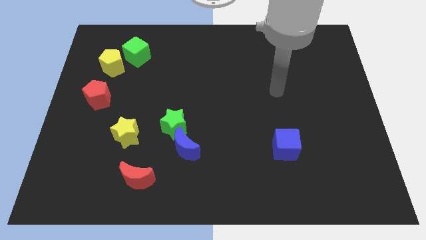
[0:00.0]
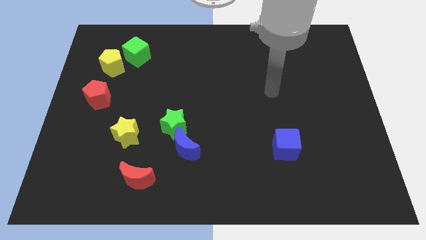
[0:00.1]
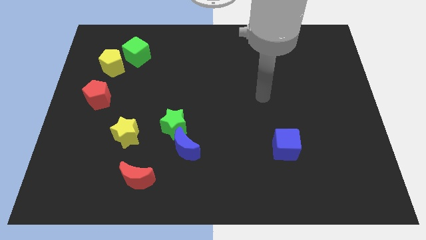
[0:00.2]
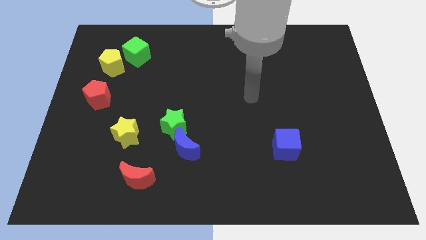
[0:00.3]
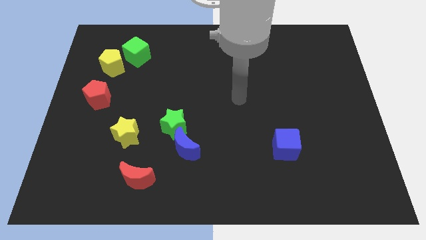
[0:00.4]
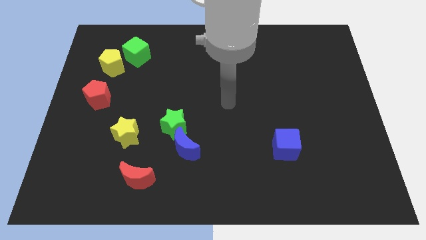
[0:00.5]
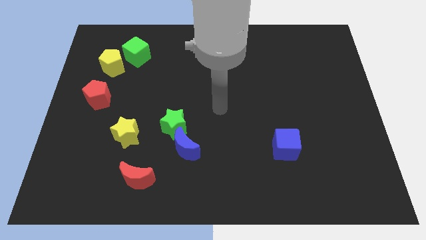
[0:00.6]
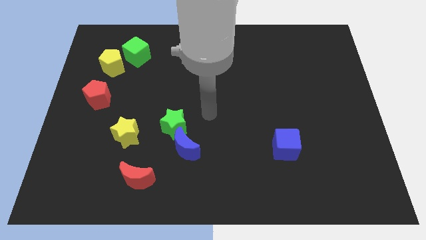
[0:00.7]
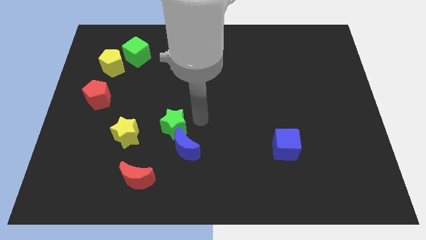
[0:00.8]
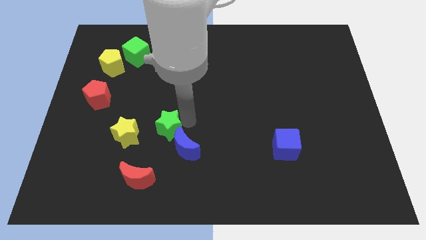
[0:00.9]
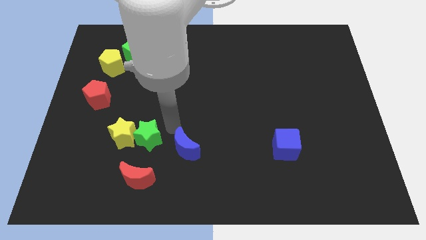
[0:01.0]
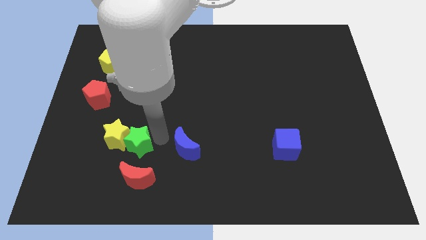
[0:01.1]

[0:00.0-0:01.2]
move the blue moon away from the green star

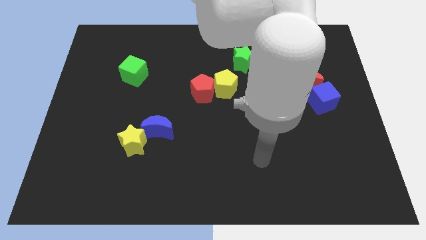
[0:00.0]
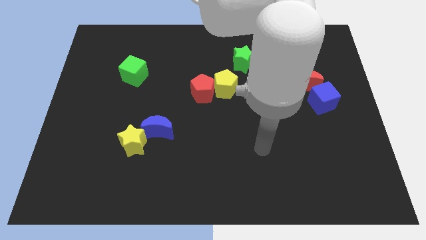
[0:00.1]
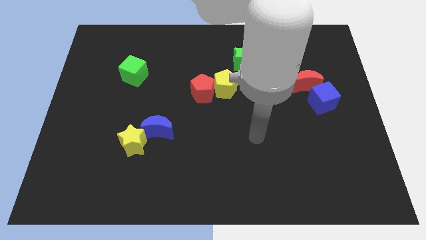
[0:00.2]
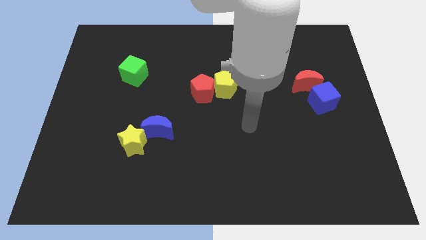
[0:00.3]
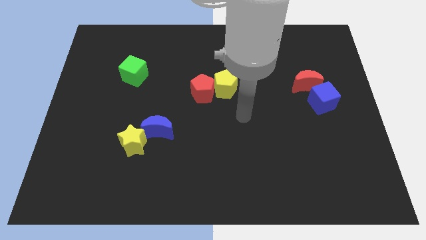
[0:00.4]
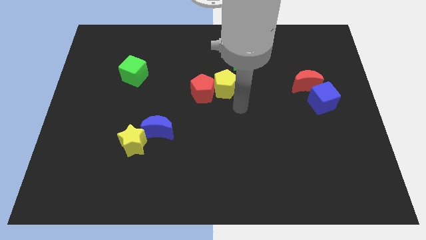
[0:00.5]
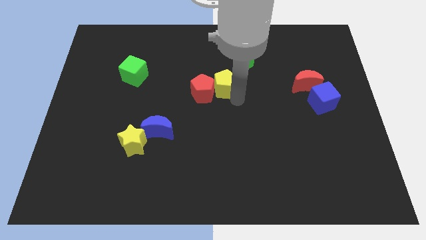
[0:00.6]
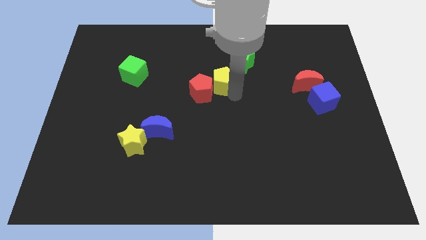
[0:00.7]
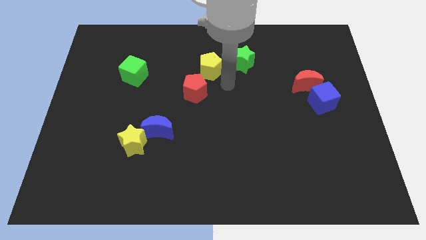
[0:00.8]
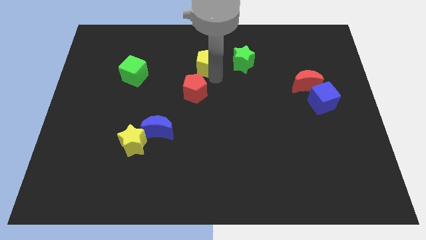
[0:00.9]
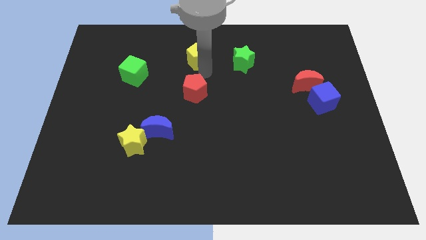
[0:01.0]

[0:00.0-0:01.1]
separate the red pentagon from the yellow pentagon

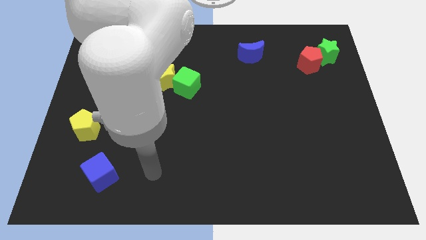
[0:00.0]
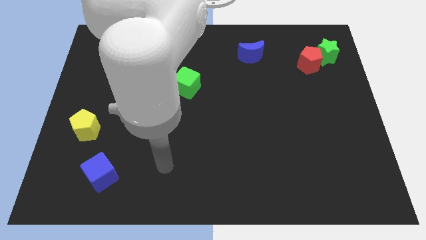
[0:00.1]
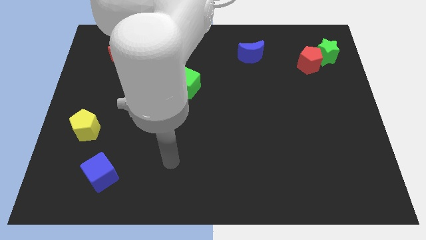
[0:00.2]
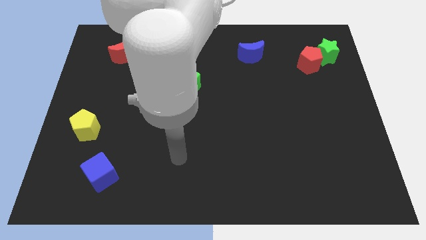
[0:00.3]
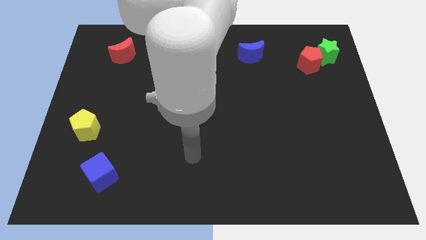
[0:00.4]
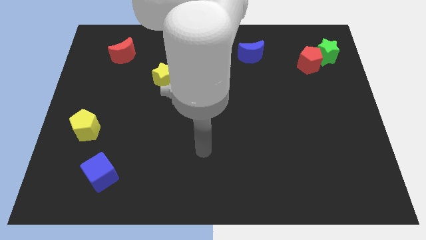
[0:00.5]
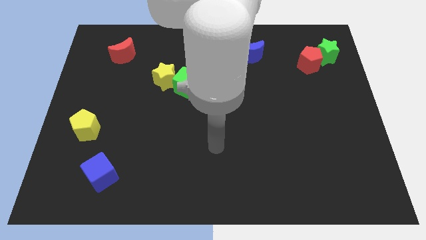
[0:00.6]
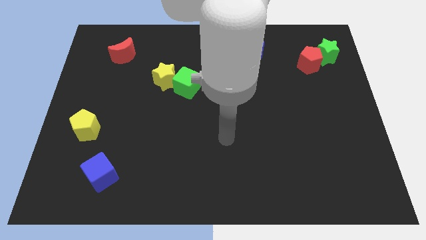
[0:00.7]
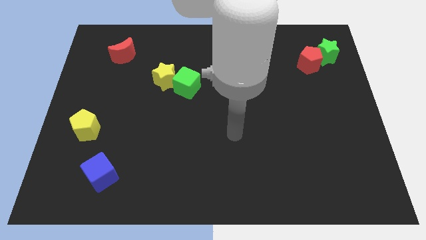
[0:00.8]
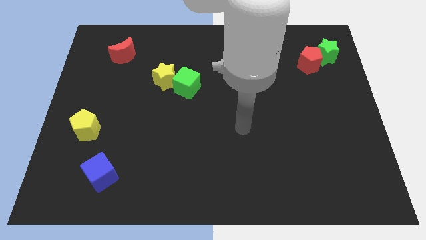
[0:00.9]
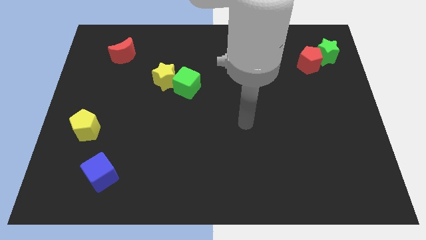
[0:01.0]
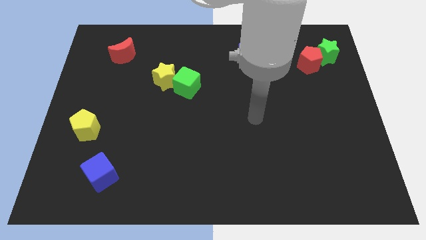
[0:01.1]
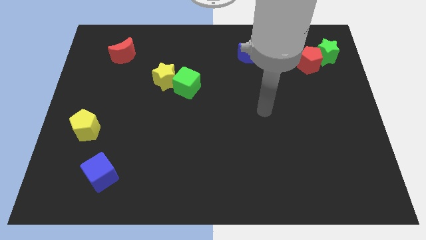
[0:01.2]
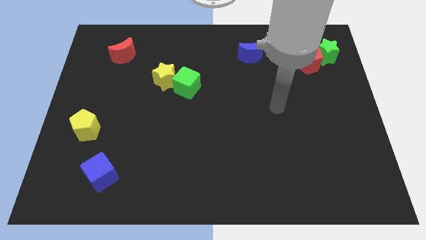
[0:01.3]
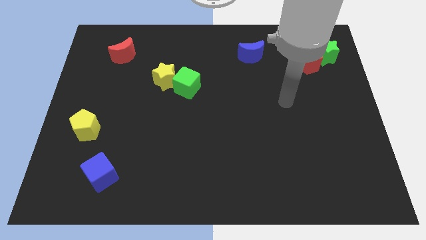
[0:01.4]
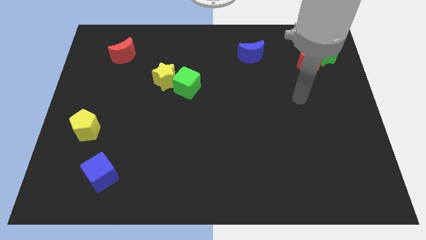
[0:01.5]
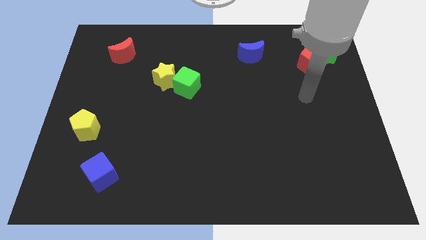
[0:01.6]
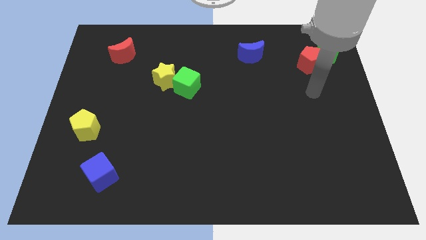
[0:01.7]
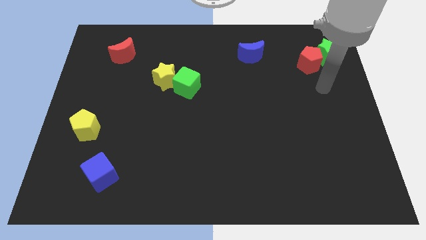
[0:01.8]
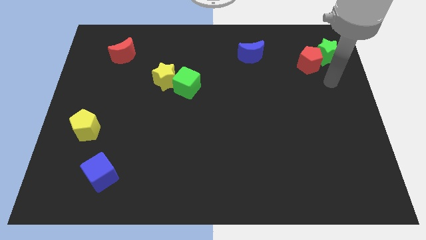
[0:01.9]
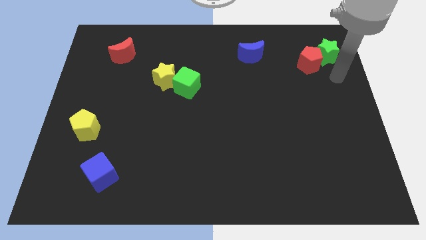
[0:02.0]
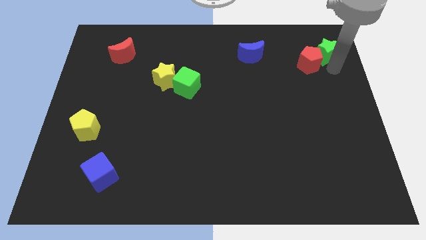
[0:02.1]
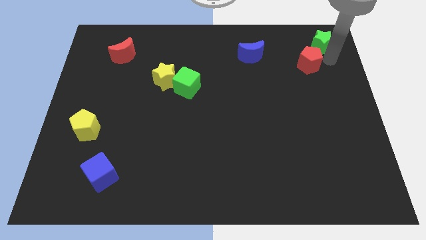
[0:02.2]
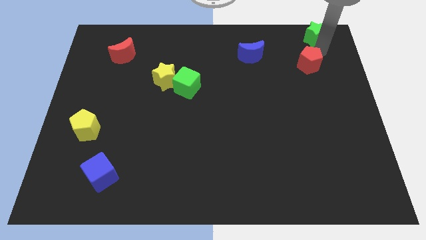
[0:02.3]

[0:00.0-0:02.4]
pull the red pentagon apart from the green star

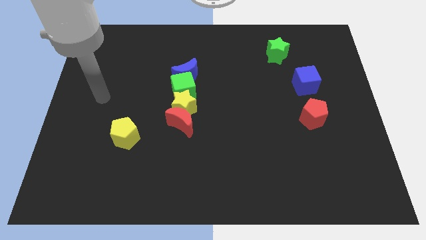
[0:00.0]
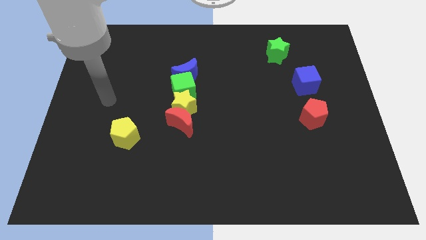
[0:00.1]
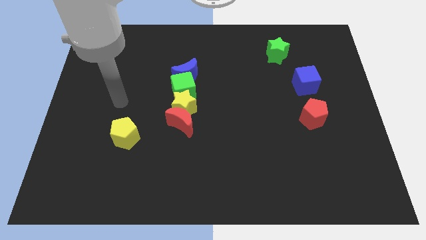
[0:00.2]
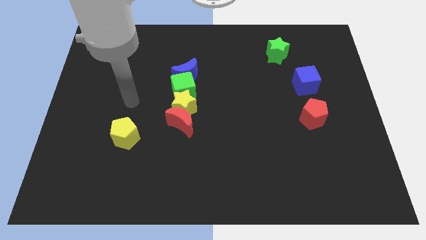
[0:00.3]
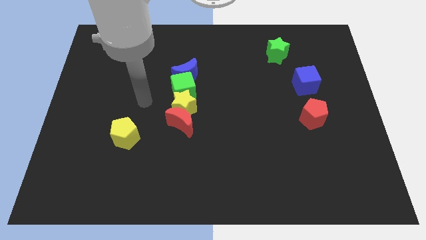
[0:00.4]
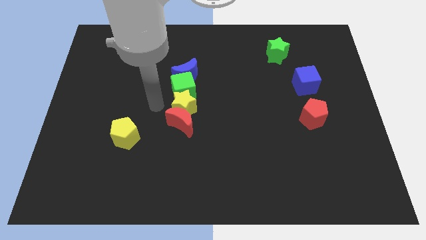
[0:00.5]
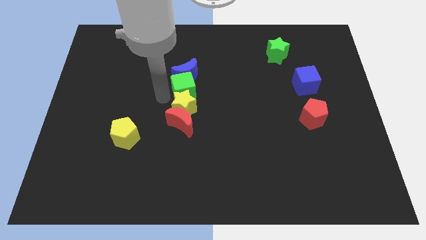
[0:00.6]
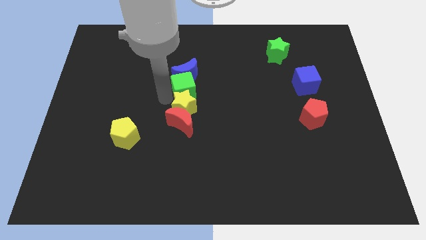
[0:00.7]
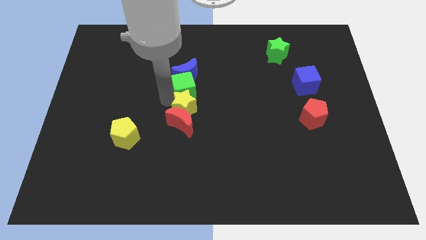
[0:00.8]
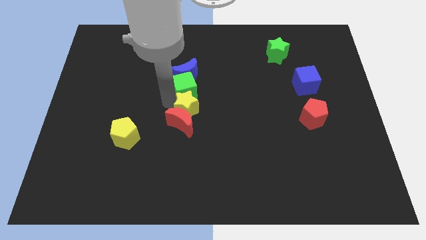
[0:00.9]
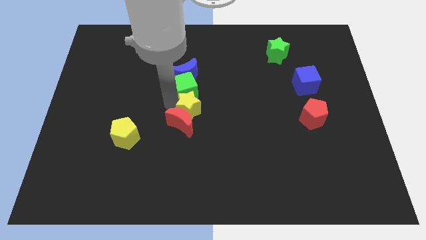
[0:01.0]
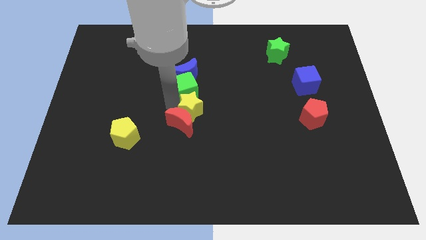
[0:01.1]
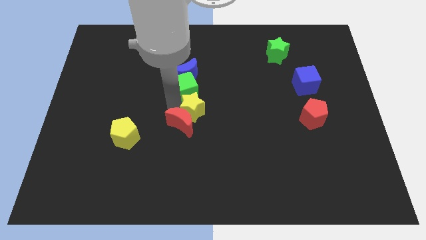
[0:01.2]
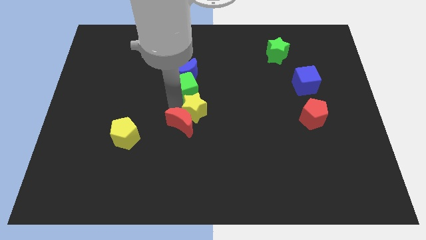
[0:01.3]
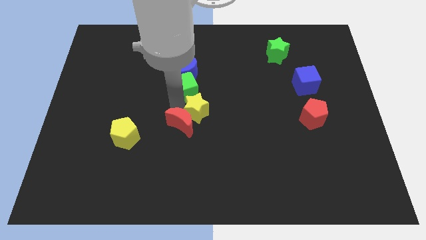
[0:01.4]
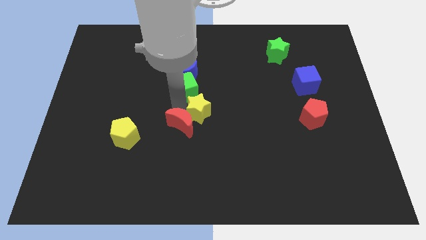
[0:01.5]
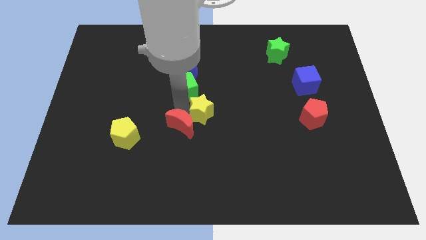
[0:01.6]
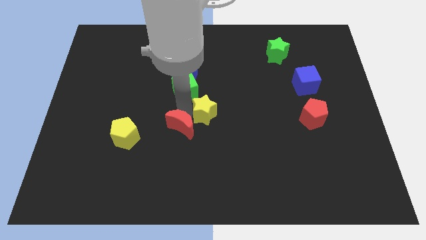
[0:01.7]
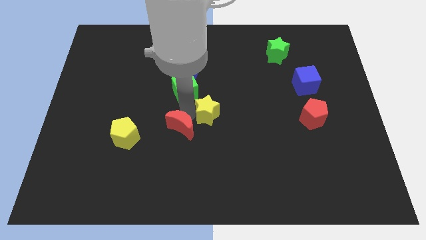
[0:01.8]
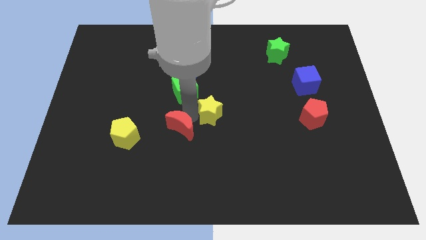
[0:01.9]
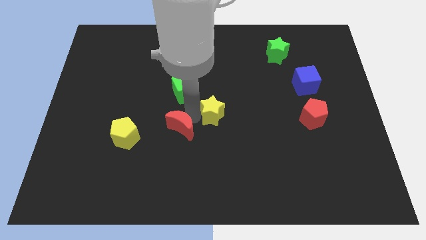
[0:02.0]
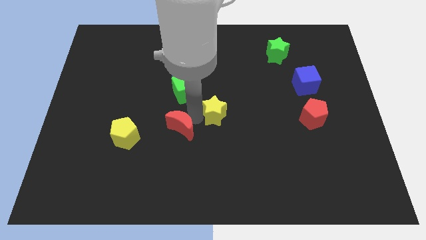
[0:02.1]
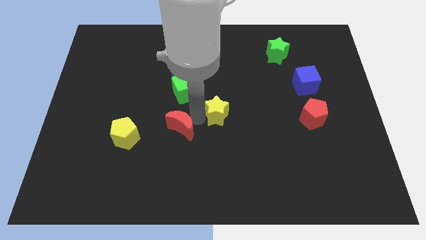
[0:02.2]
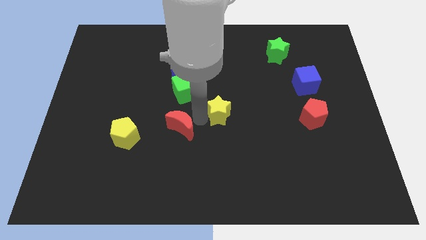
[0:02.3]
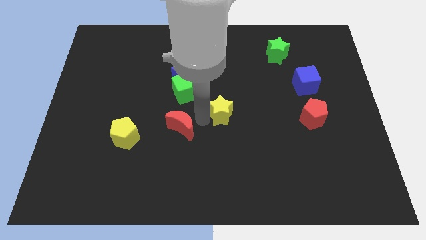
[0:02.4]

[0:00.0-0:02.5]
move the yellow star away from the red moon, green cube, and blue moon

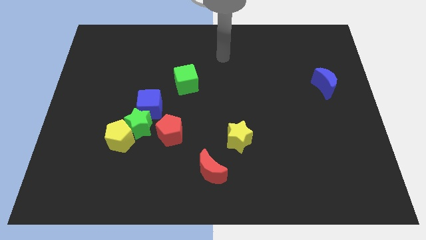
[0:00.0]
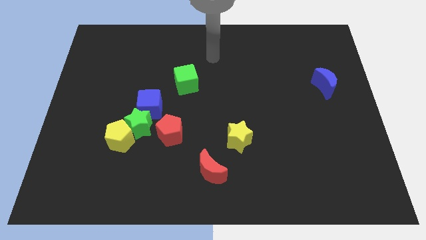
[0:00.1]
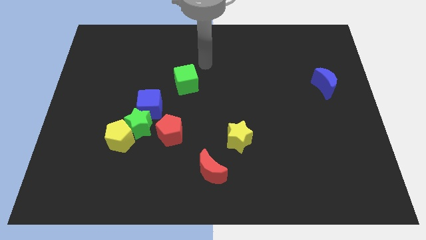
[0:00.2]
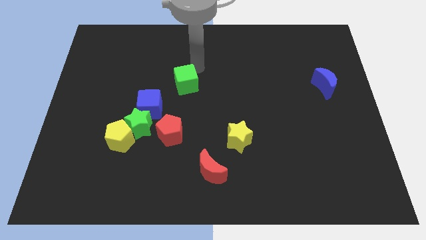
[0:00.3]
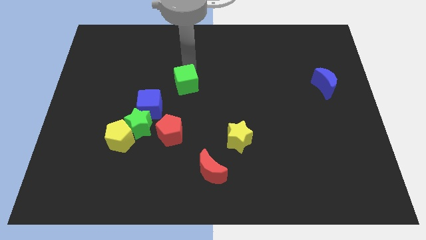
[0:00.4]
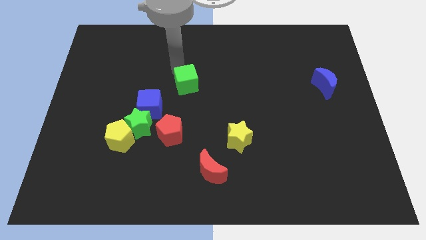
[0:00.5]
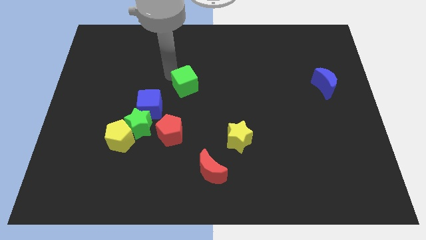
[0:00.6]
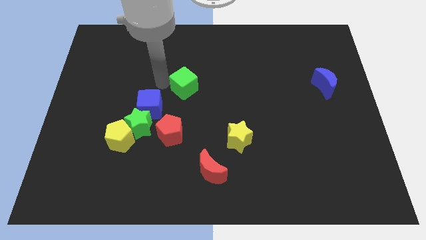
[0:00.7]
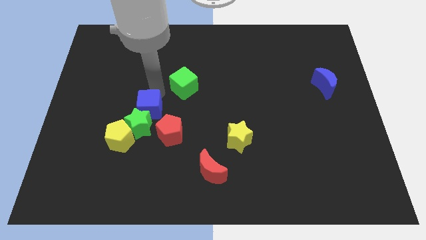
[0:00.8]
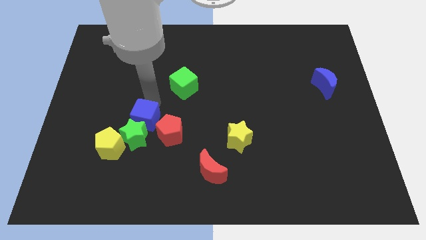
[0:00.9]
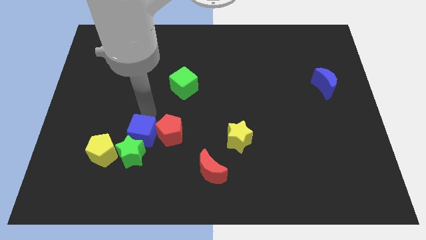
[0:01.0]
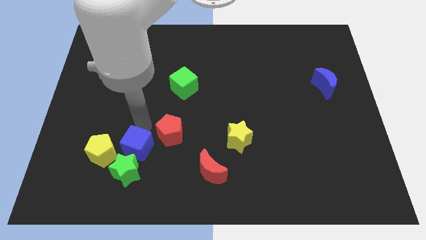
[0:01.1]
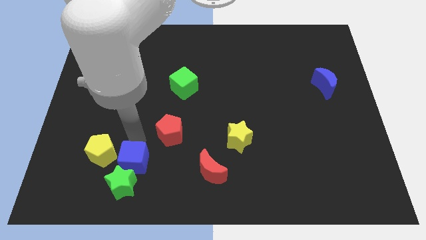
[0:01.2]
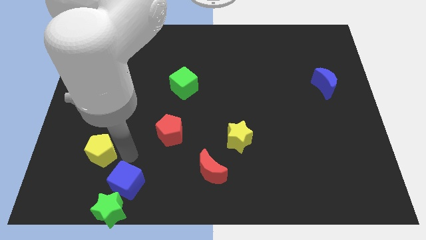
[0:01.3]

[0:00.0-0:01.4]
move the yellow pentagon away from the green star

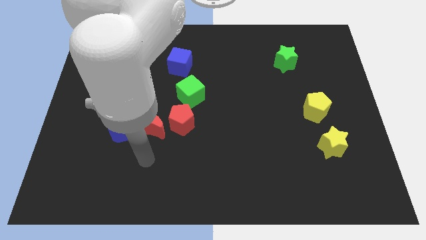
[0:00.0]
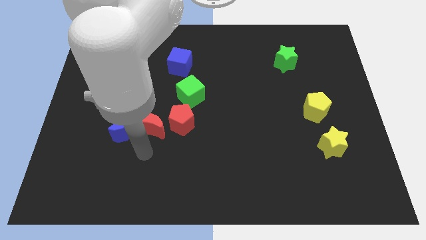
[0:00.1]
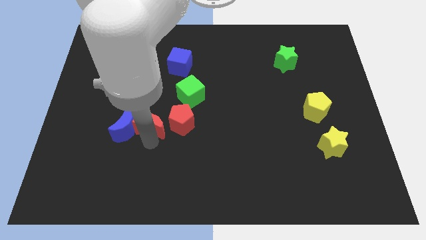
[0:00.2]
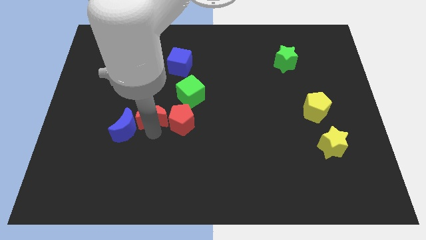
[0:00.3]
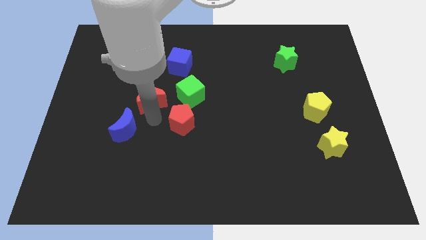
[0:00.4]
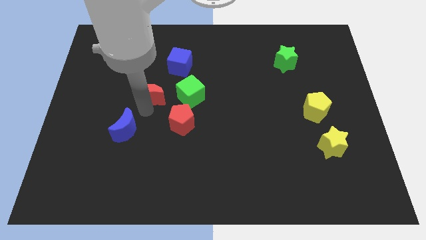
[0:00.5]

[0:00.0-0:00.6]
pull the blue moon apart from the red moon

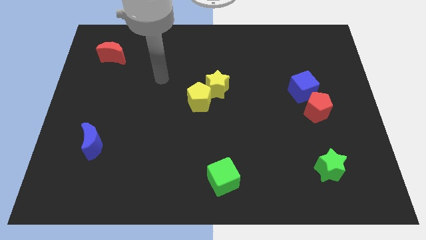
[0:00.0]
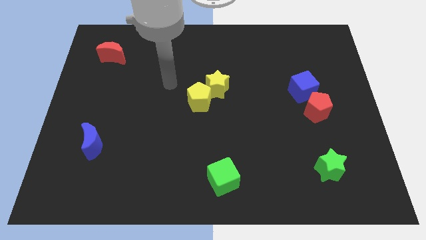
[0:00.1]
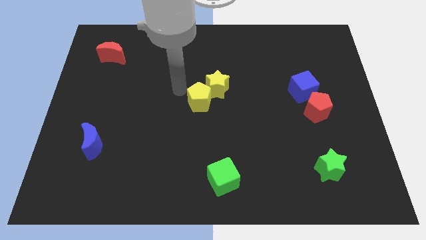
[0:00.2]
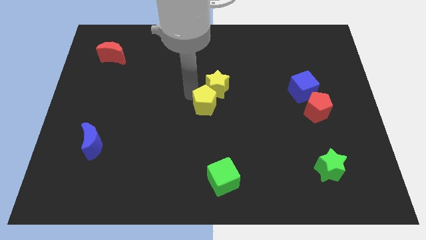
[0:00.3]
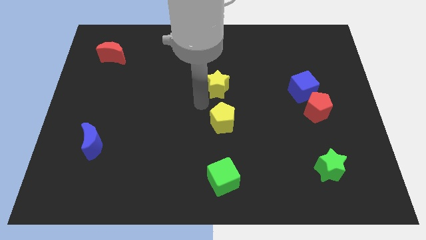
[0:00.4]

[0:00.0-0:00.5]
pull the yellow star apart from the yellow pentagon
